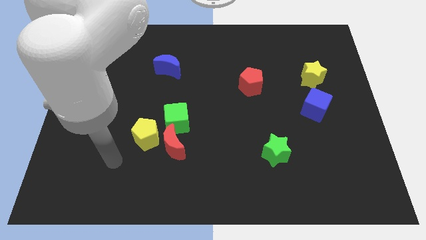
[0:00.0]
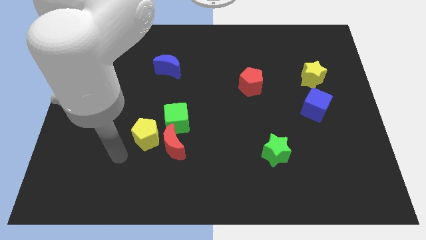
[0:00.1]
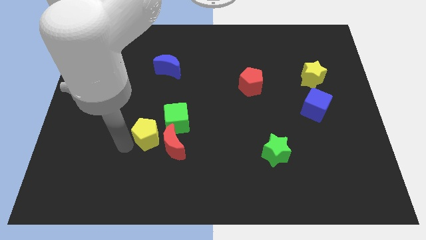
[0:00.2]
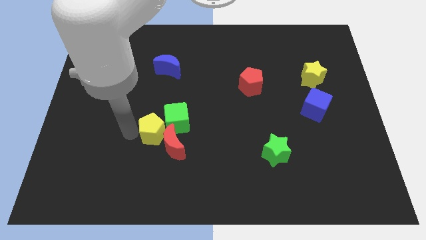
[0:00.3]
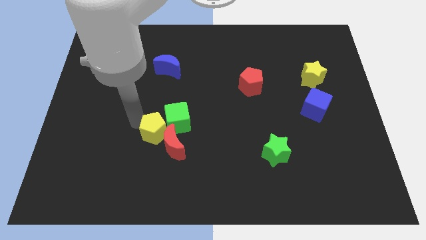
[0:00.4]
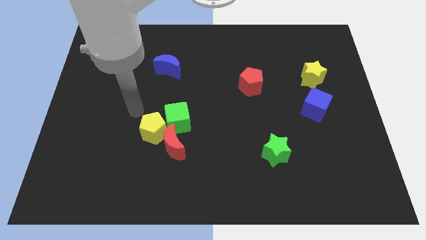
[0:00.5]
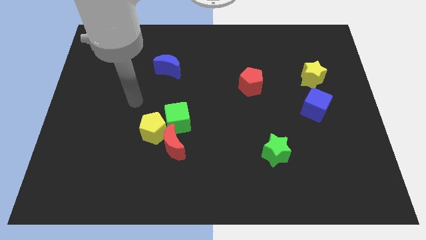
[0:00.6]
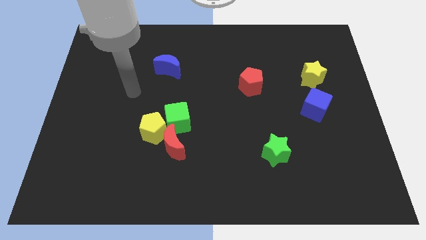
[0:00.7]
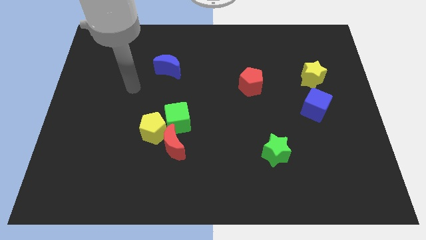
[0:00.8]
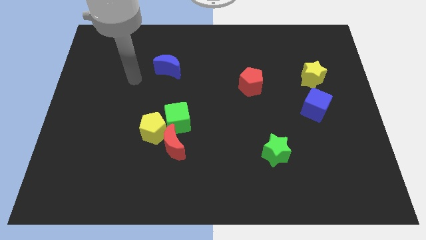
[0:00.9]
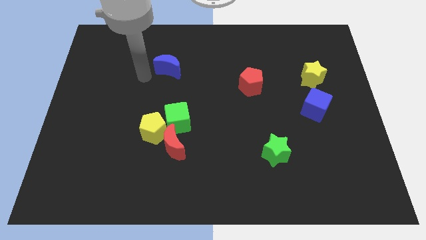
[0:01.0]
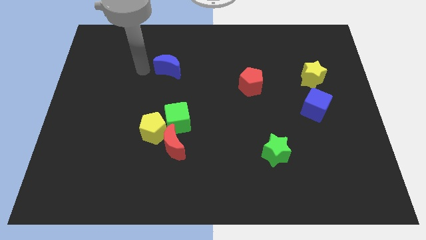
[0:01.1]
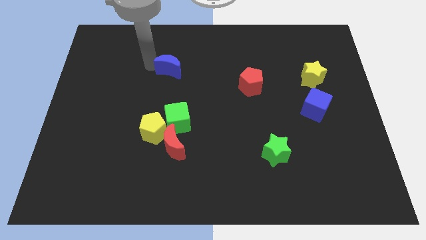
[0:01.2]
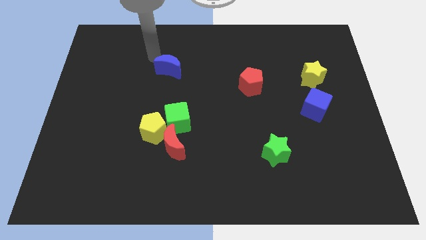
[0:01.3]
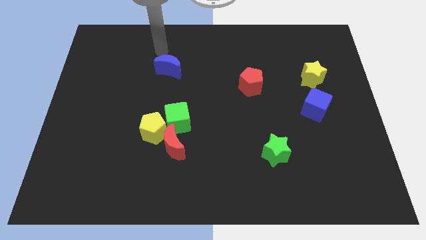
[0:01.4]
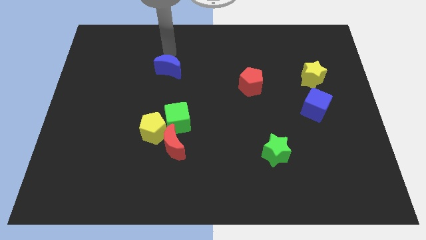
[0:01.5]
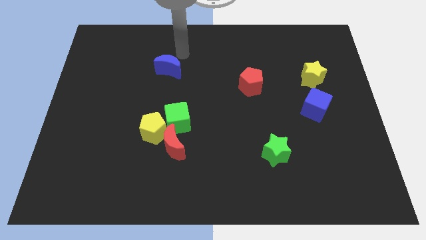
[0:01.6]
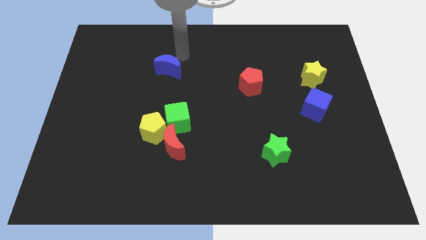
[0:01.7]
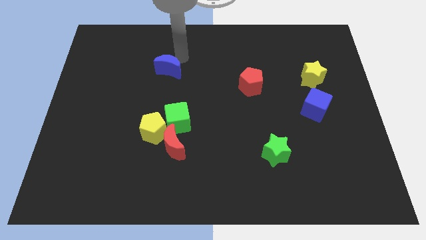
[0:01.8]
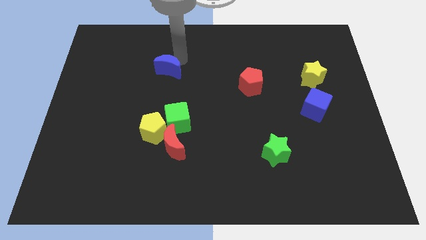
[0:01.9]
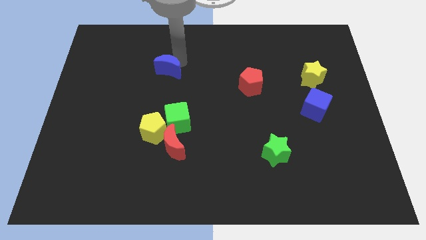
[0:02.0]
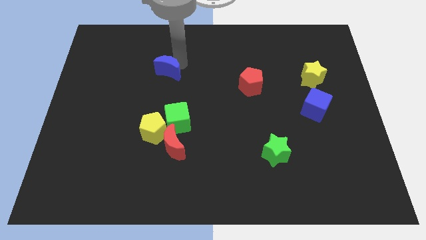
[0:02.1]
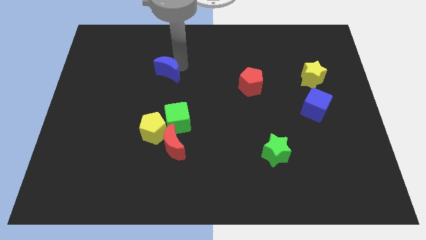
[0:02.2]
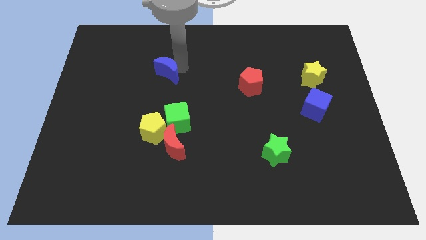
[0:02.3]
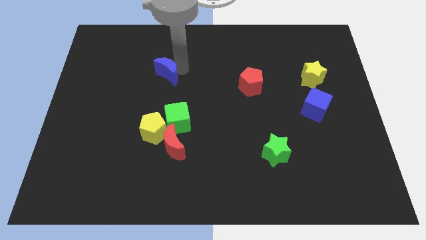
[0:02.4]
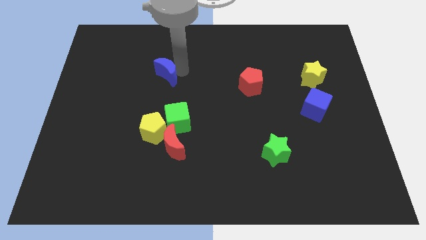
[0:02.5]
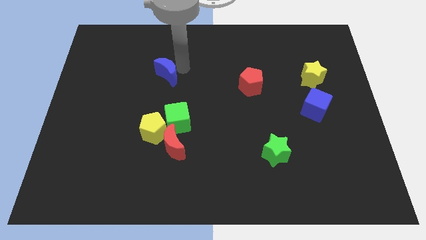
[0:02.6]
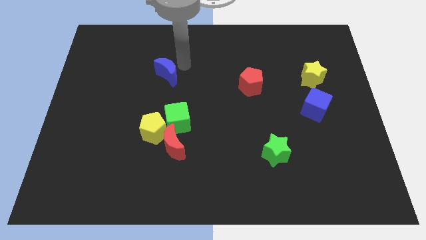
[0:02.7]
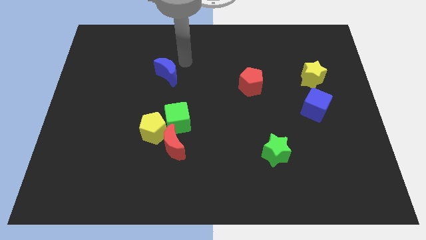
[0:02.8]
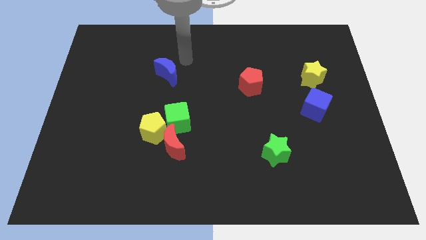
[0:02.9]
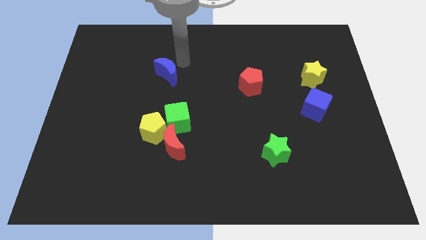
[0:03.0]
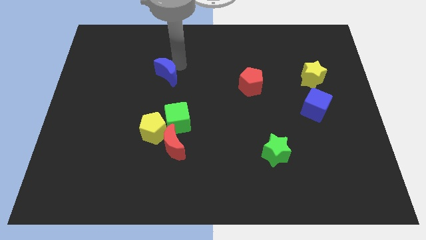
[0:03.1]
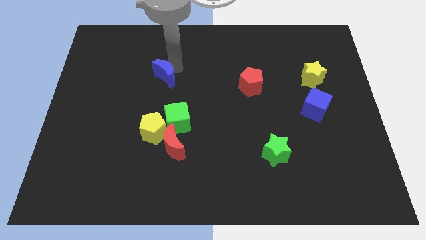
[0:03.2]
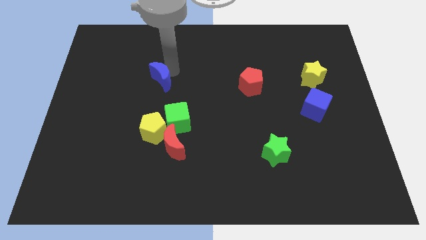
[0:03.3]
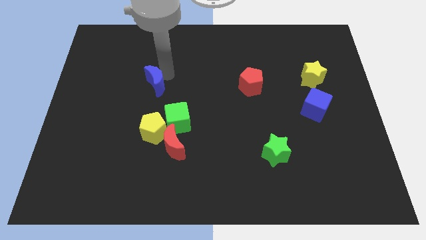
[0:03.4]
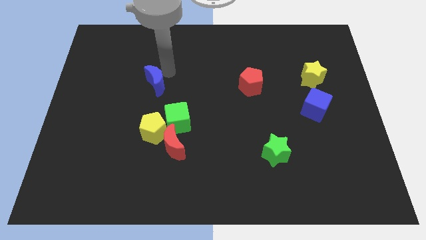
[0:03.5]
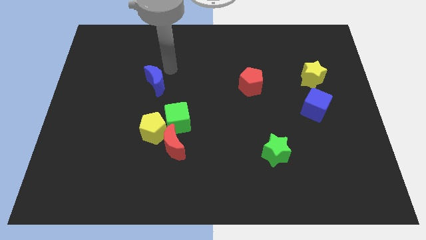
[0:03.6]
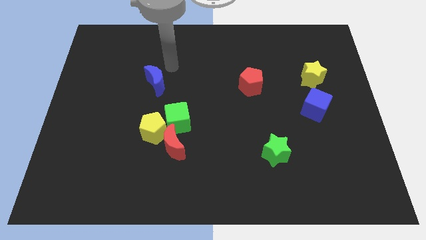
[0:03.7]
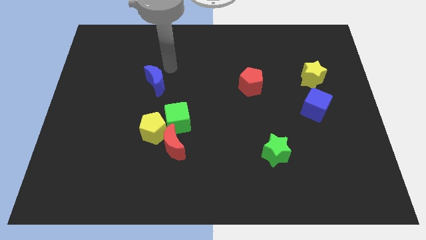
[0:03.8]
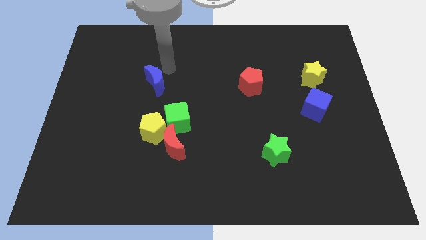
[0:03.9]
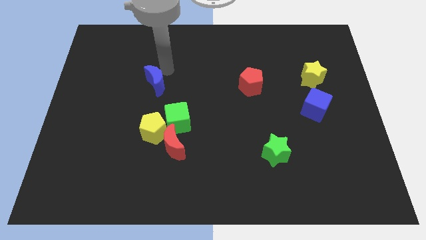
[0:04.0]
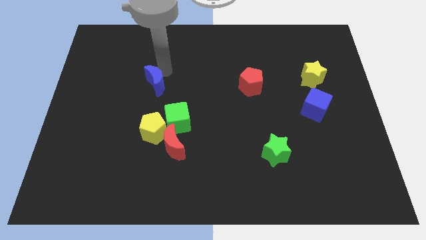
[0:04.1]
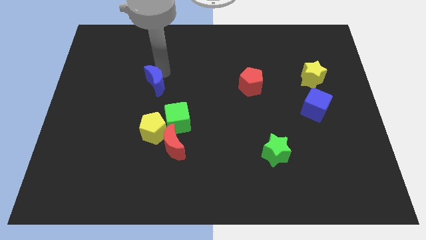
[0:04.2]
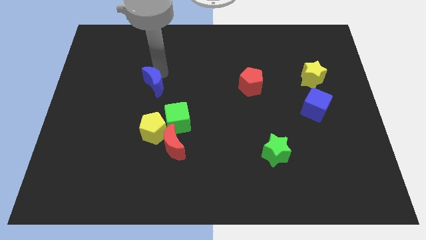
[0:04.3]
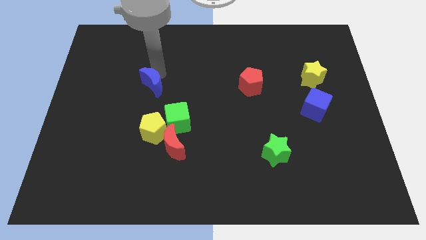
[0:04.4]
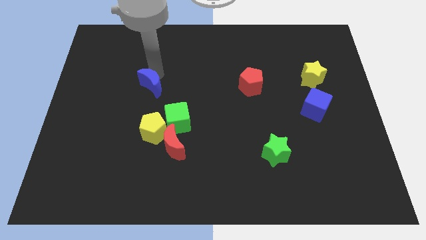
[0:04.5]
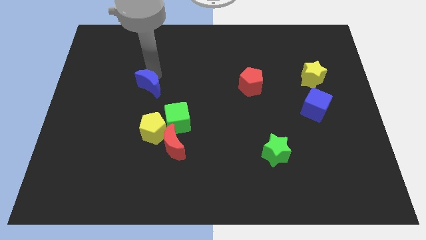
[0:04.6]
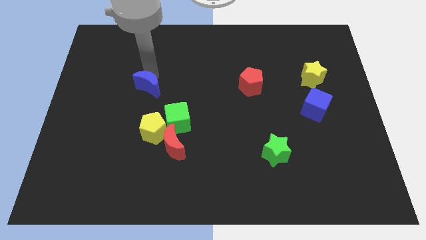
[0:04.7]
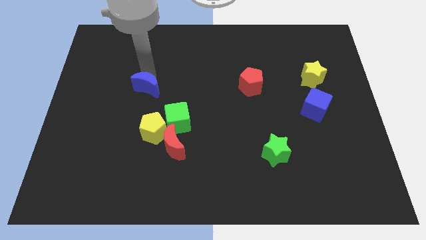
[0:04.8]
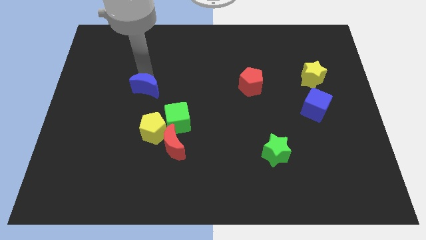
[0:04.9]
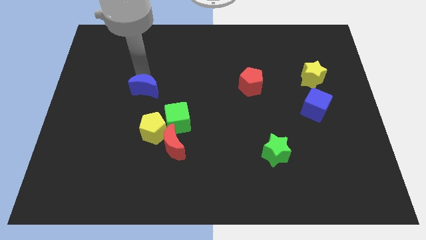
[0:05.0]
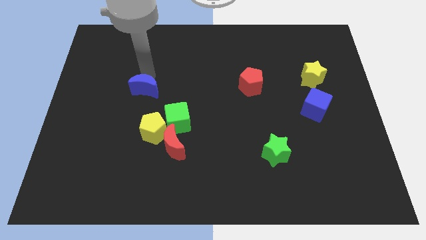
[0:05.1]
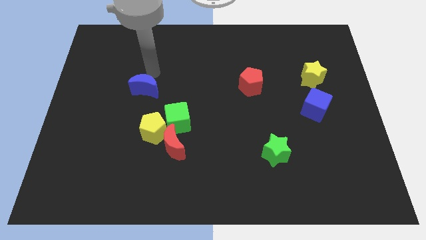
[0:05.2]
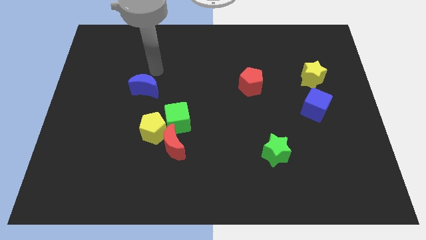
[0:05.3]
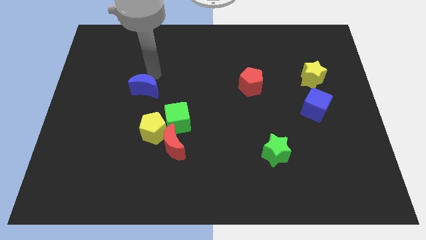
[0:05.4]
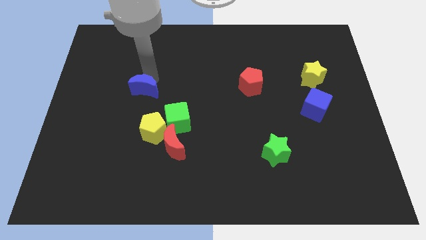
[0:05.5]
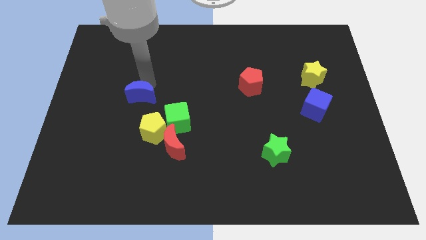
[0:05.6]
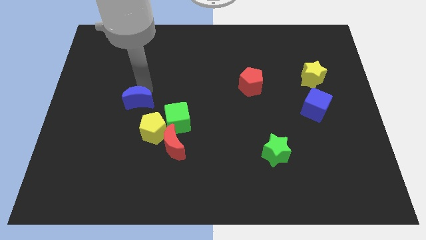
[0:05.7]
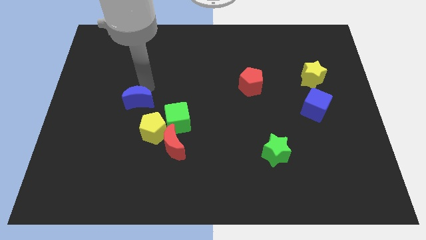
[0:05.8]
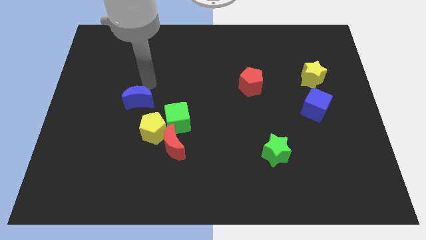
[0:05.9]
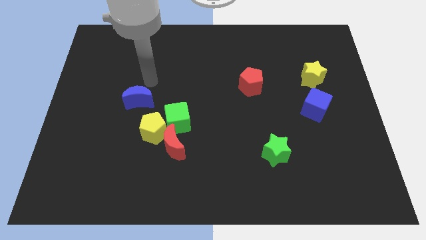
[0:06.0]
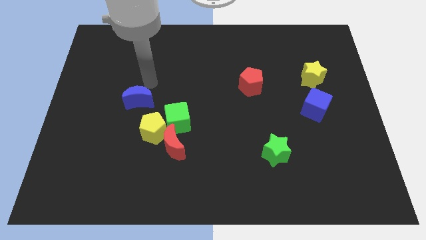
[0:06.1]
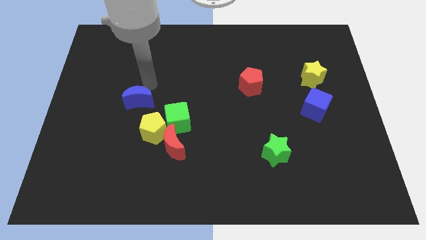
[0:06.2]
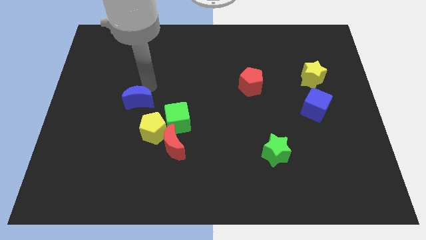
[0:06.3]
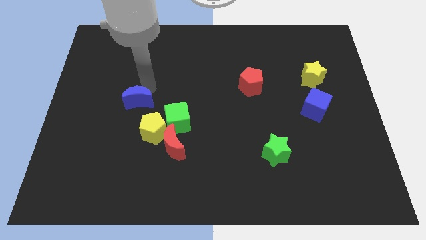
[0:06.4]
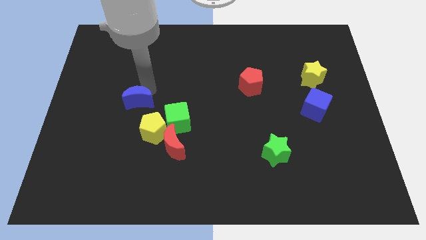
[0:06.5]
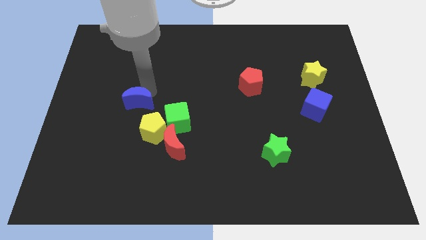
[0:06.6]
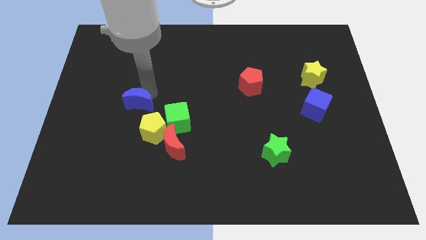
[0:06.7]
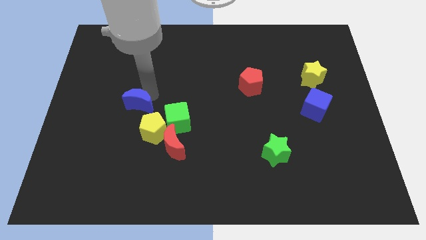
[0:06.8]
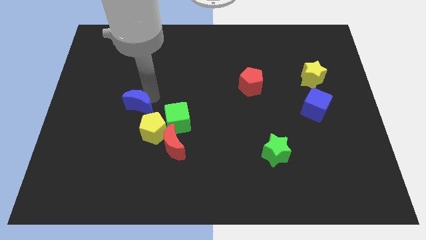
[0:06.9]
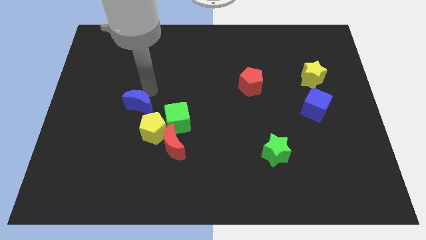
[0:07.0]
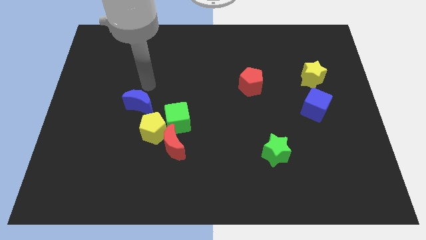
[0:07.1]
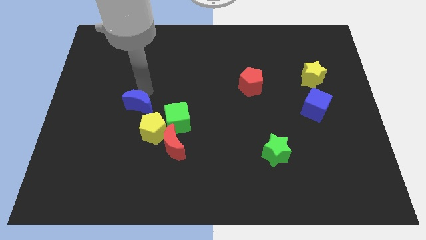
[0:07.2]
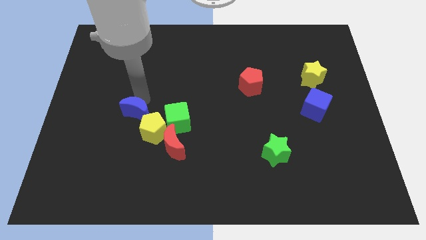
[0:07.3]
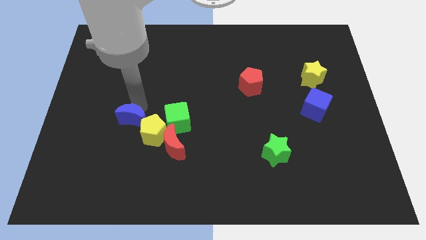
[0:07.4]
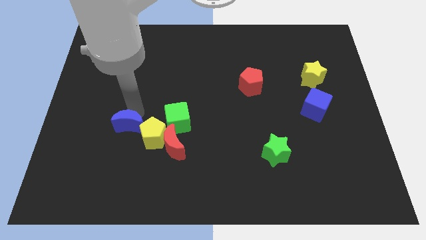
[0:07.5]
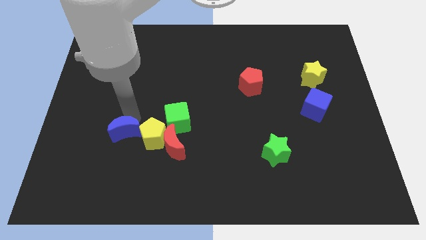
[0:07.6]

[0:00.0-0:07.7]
slide the blue moon to the left of the red moon
